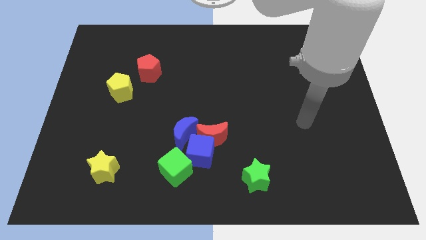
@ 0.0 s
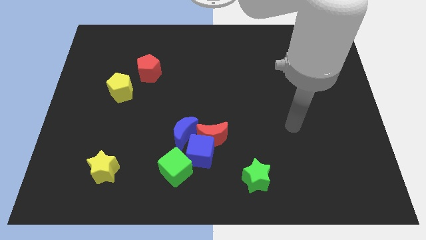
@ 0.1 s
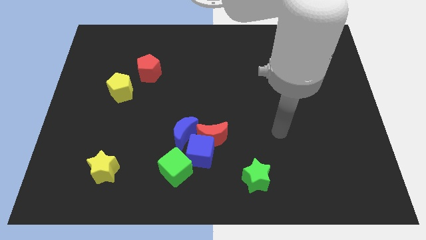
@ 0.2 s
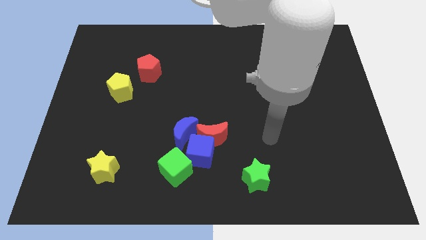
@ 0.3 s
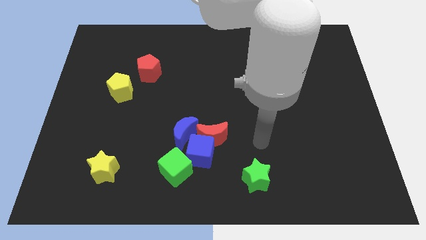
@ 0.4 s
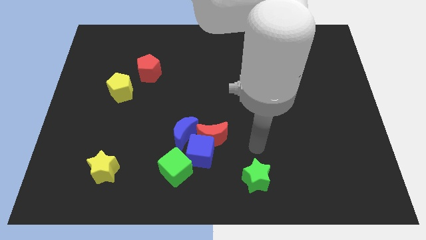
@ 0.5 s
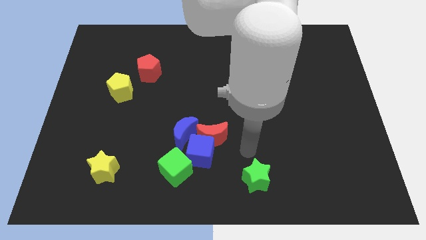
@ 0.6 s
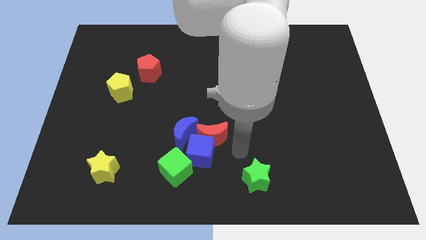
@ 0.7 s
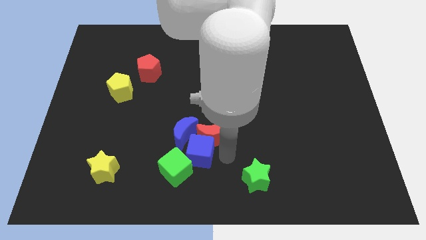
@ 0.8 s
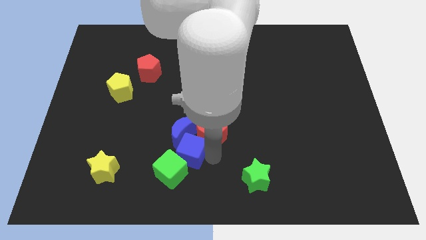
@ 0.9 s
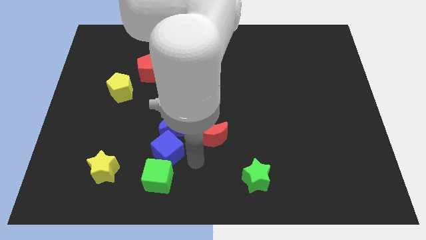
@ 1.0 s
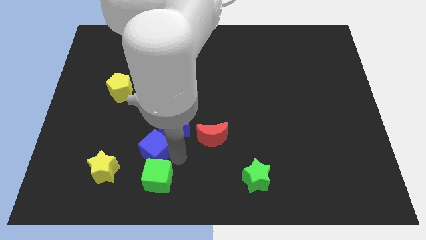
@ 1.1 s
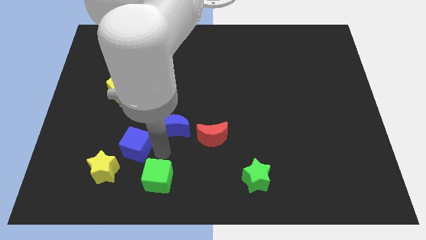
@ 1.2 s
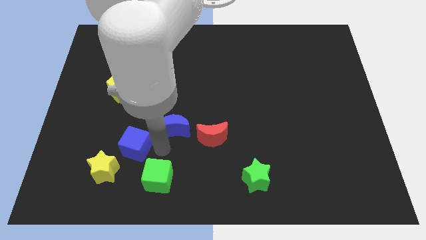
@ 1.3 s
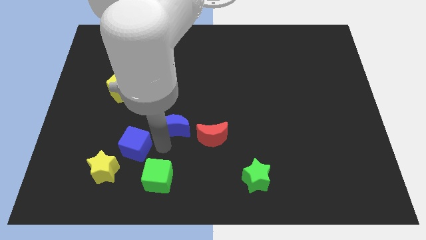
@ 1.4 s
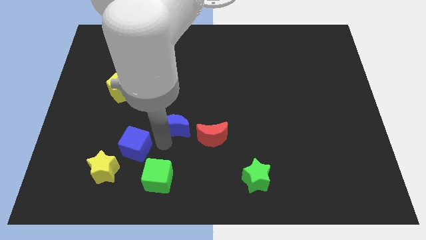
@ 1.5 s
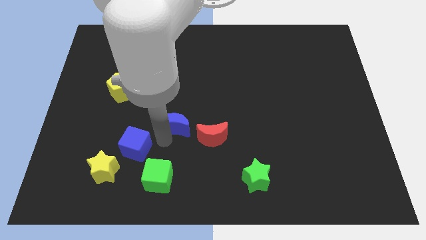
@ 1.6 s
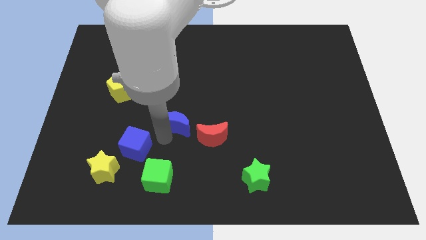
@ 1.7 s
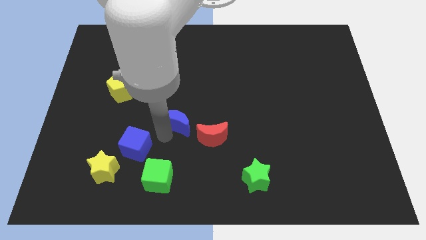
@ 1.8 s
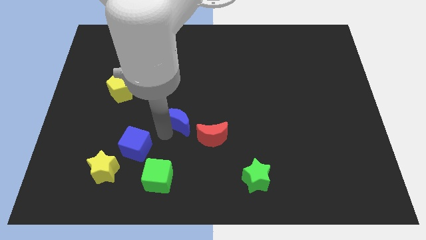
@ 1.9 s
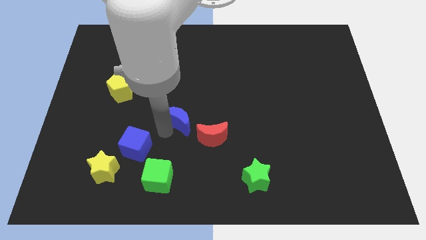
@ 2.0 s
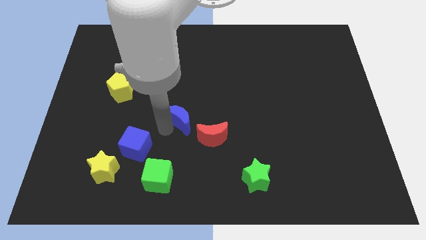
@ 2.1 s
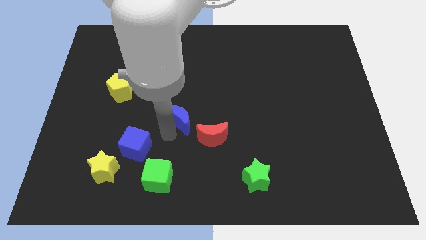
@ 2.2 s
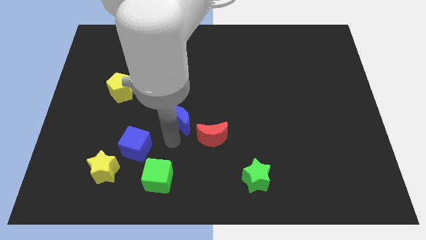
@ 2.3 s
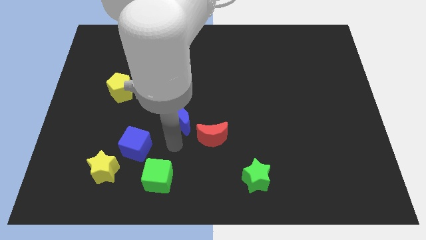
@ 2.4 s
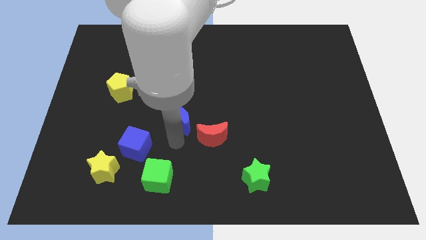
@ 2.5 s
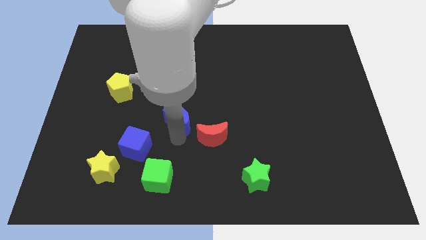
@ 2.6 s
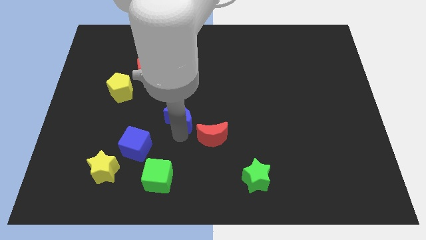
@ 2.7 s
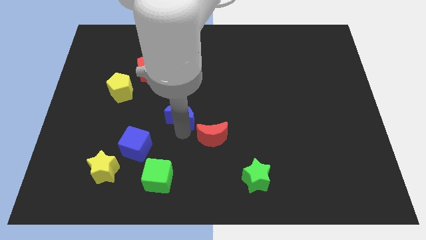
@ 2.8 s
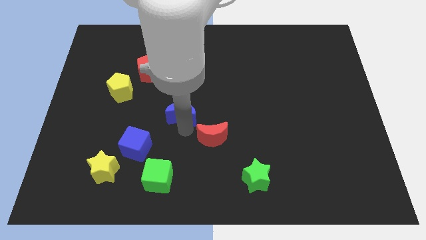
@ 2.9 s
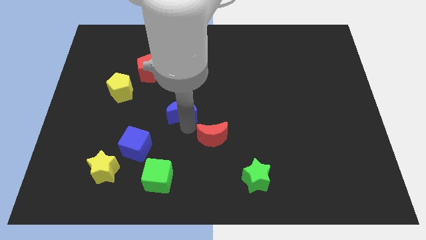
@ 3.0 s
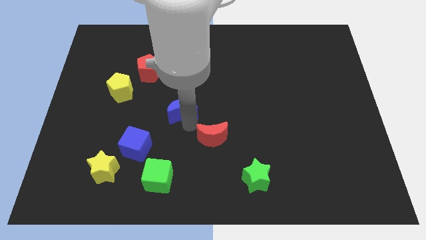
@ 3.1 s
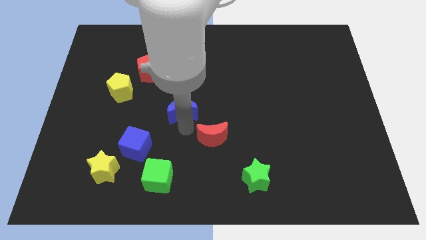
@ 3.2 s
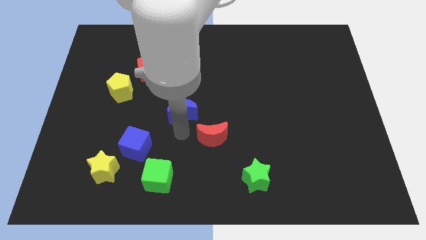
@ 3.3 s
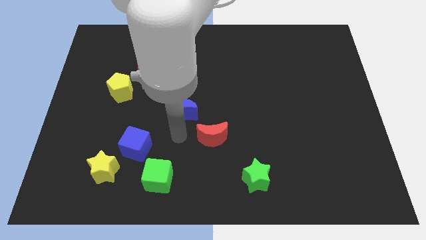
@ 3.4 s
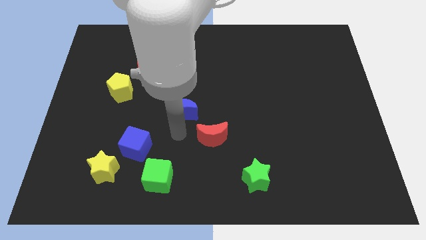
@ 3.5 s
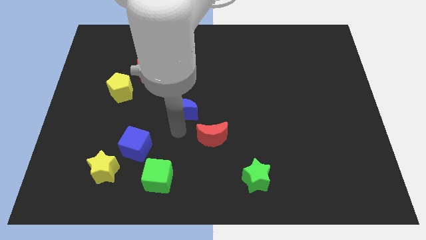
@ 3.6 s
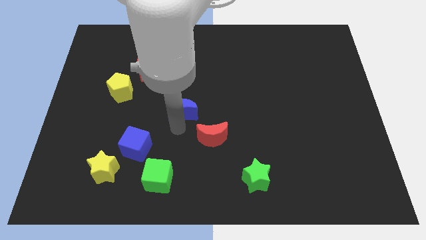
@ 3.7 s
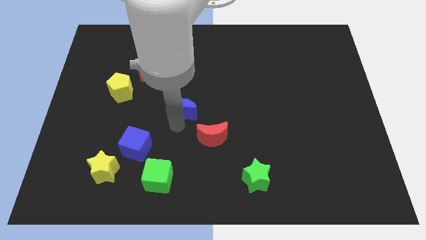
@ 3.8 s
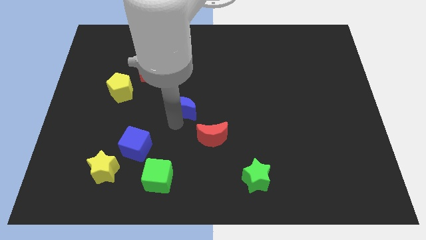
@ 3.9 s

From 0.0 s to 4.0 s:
move the blue moon upwards a little bit

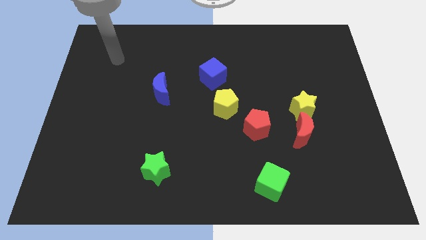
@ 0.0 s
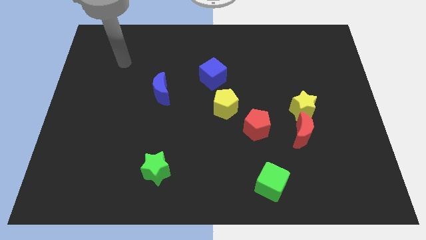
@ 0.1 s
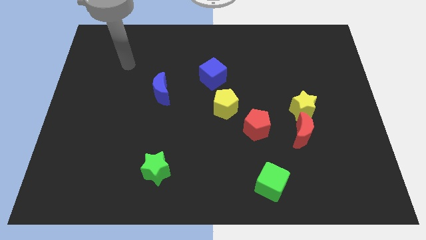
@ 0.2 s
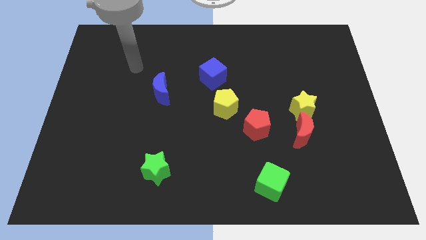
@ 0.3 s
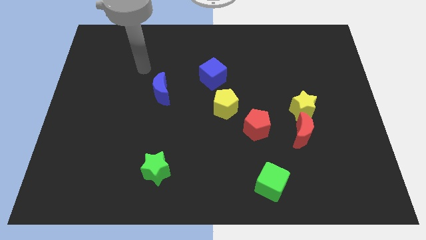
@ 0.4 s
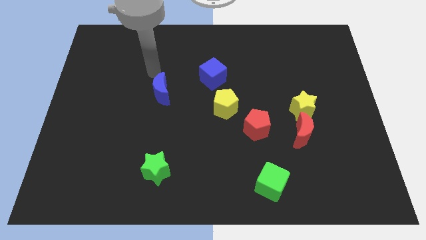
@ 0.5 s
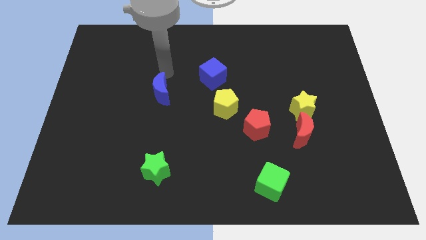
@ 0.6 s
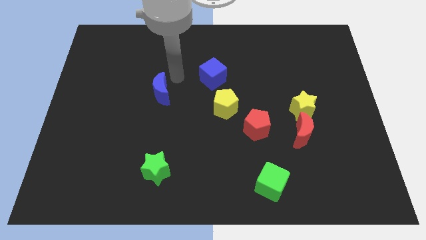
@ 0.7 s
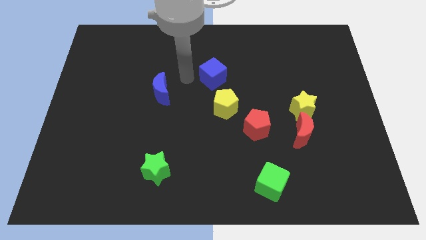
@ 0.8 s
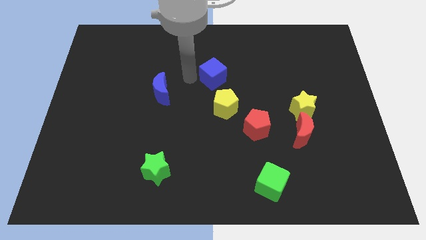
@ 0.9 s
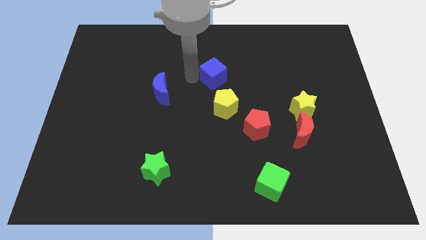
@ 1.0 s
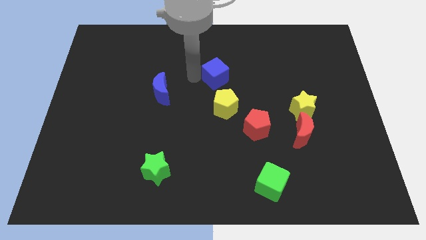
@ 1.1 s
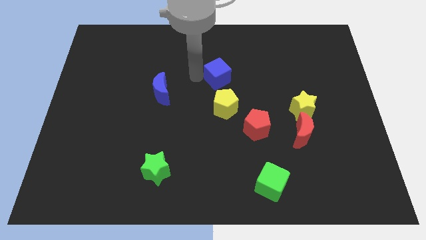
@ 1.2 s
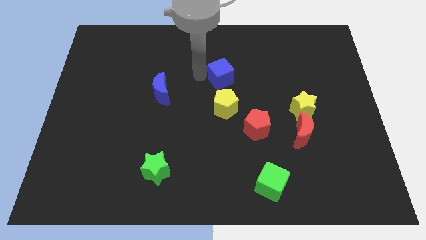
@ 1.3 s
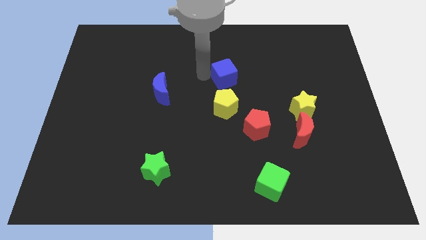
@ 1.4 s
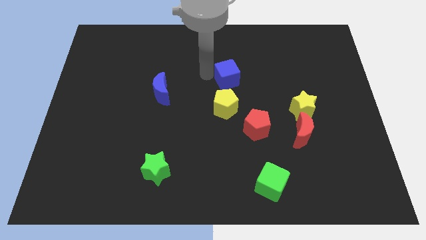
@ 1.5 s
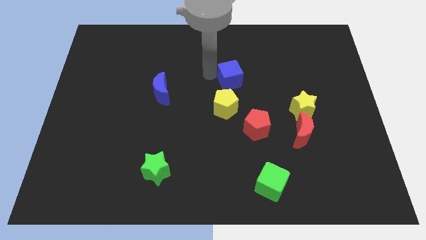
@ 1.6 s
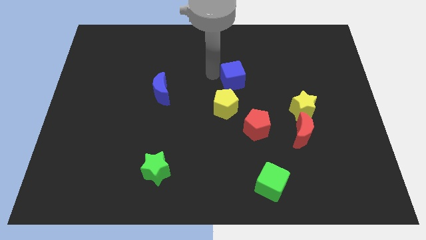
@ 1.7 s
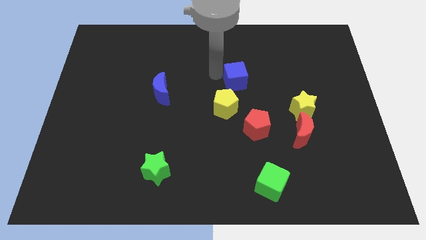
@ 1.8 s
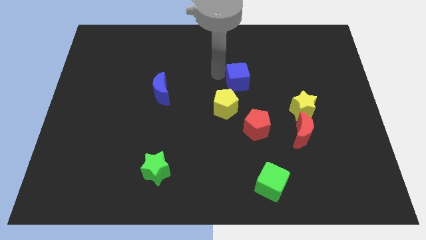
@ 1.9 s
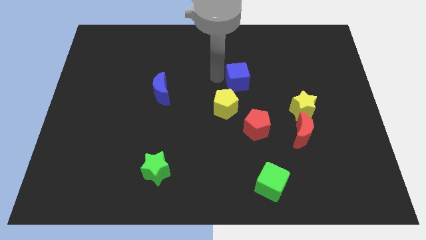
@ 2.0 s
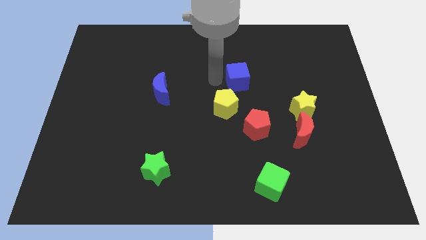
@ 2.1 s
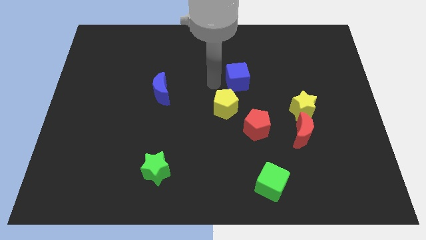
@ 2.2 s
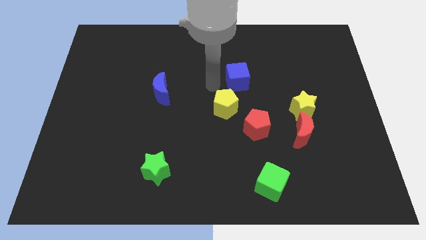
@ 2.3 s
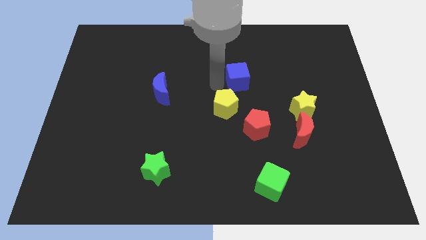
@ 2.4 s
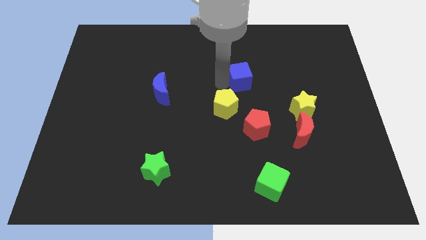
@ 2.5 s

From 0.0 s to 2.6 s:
push the blue cube to the right a little bit

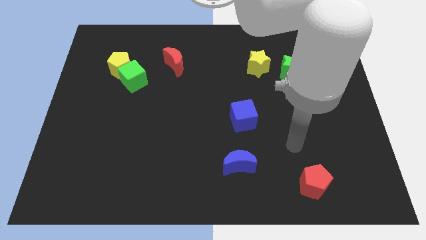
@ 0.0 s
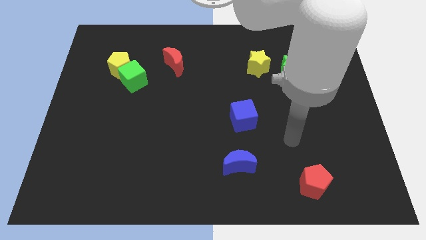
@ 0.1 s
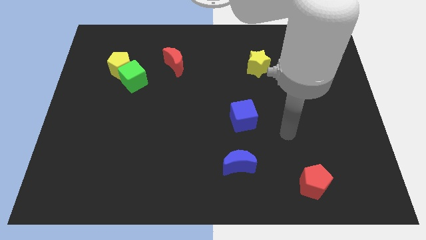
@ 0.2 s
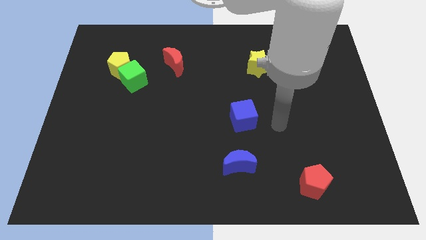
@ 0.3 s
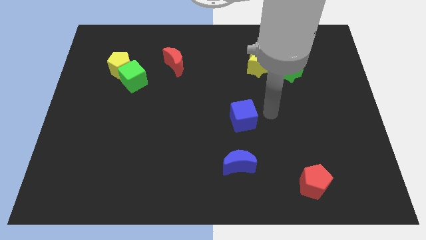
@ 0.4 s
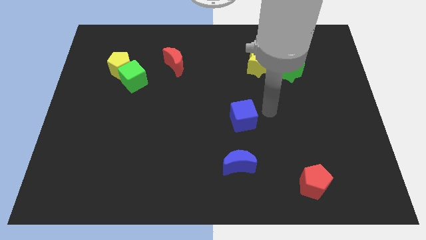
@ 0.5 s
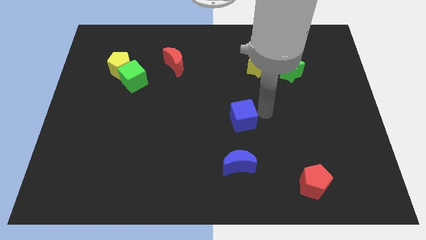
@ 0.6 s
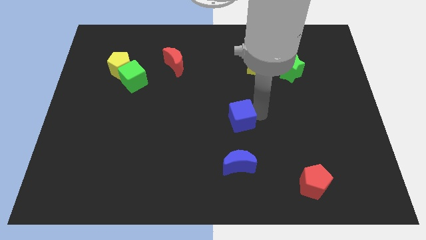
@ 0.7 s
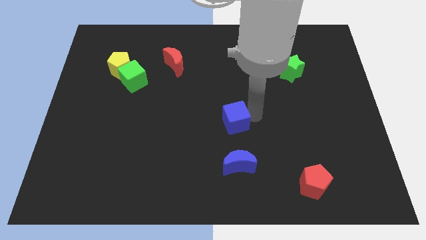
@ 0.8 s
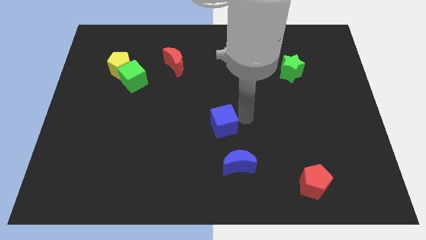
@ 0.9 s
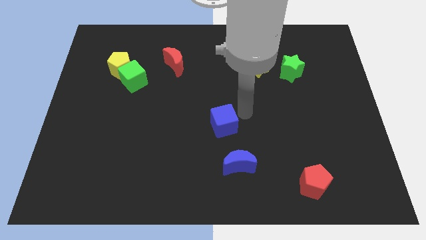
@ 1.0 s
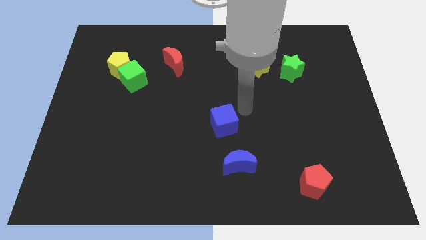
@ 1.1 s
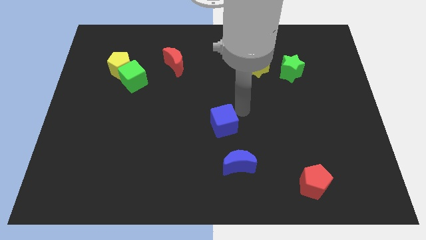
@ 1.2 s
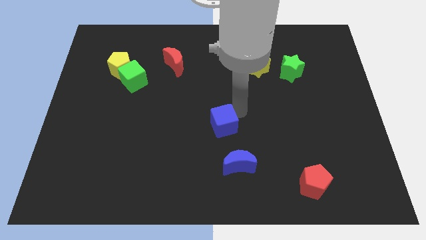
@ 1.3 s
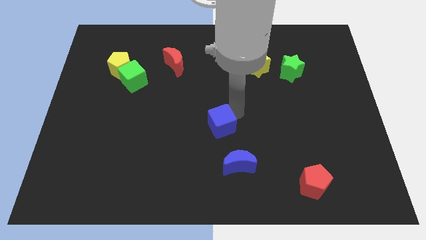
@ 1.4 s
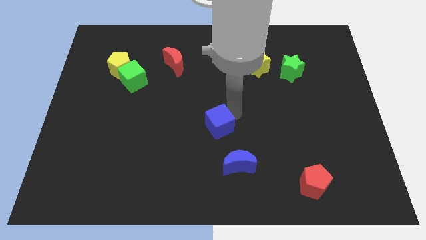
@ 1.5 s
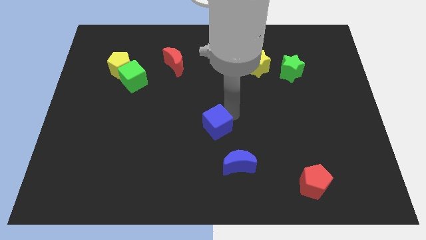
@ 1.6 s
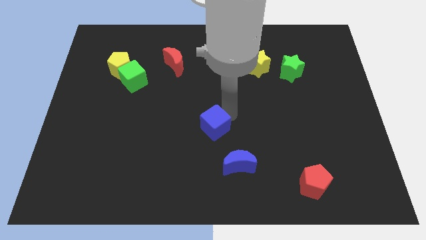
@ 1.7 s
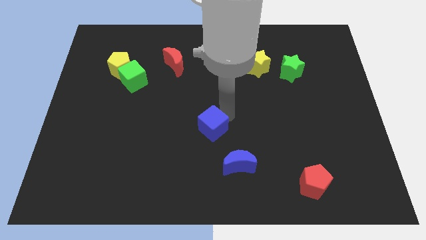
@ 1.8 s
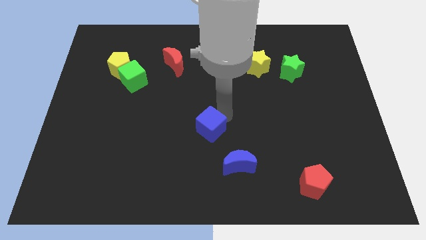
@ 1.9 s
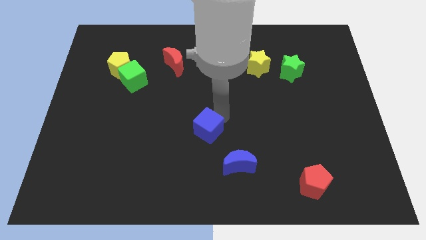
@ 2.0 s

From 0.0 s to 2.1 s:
move the blue cube somewhat downwards and left
